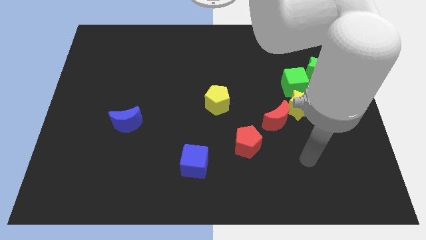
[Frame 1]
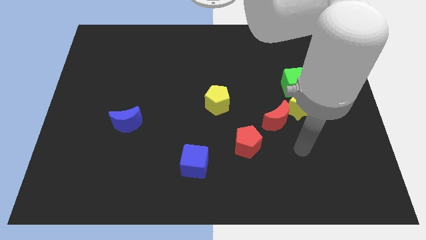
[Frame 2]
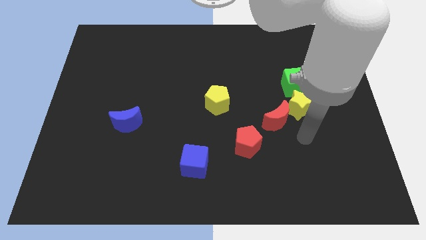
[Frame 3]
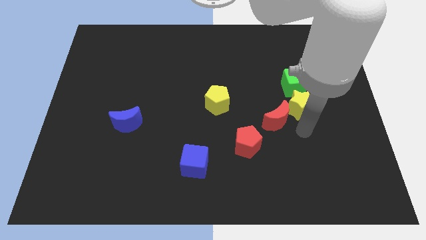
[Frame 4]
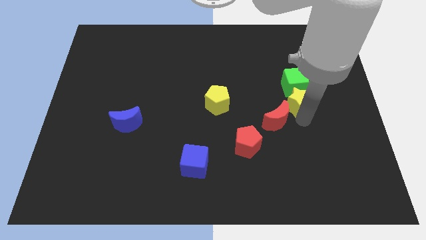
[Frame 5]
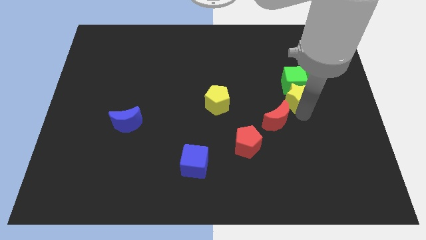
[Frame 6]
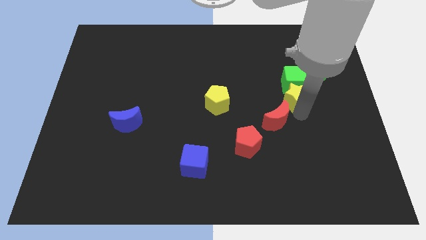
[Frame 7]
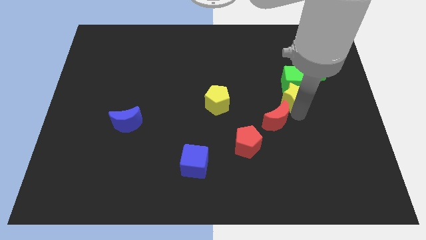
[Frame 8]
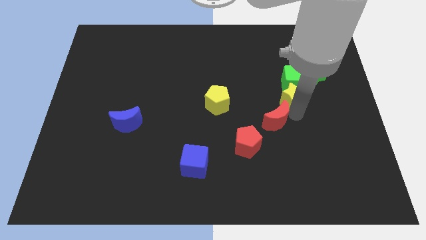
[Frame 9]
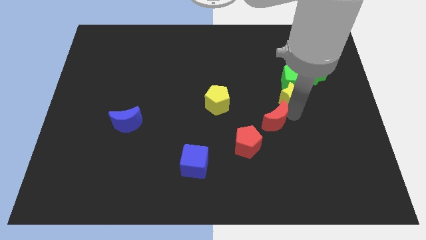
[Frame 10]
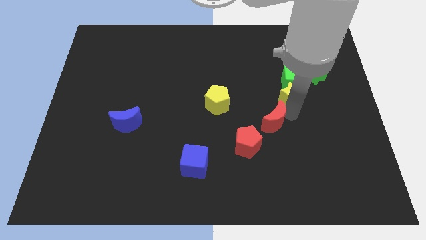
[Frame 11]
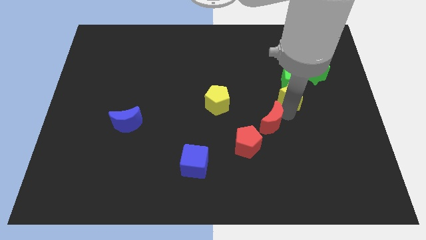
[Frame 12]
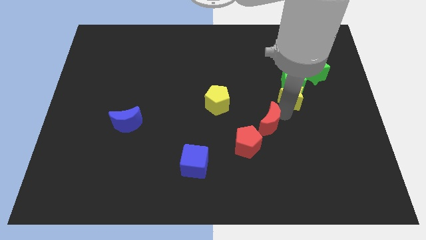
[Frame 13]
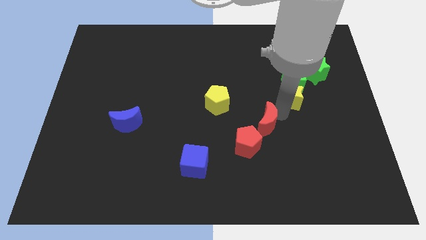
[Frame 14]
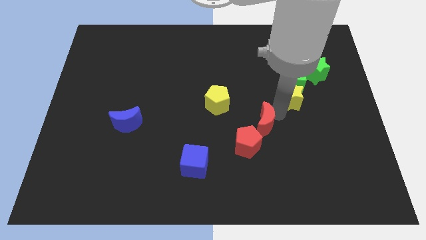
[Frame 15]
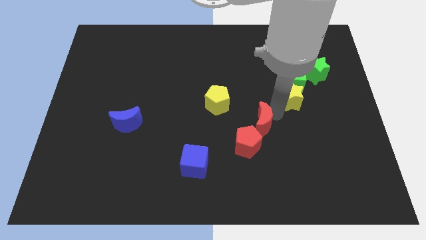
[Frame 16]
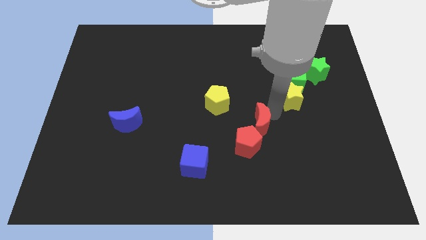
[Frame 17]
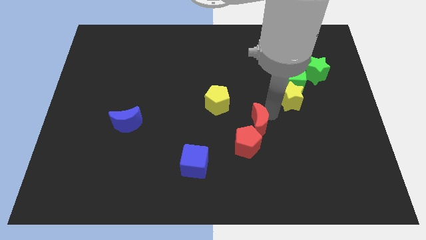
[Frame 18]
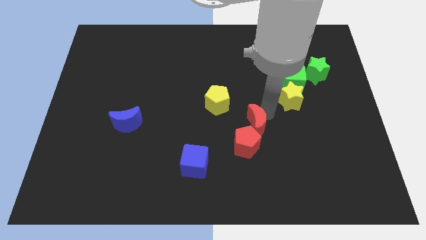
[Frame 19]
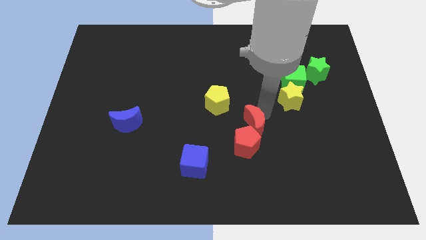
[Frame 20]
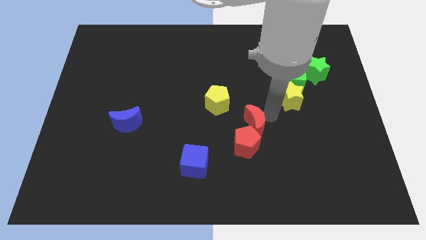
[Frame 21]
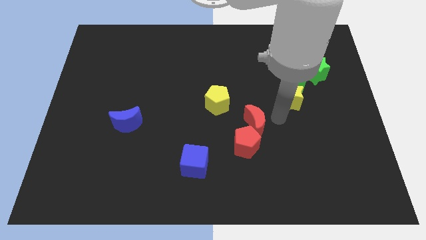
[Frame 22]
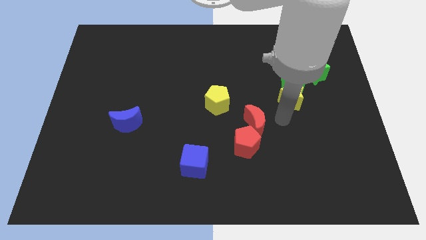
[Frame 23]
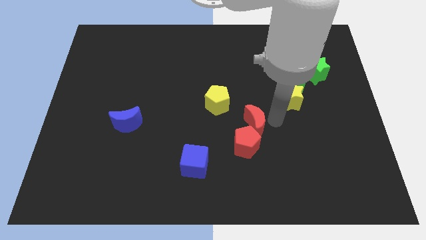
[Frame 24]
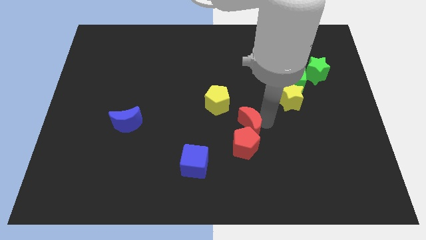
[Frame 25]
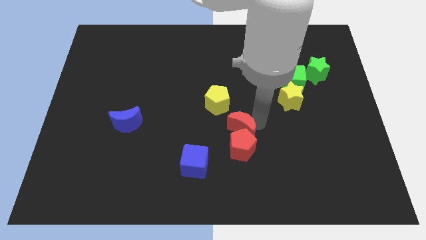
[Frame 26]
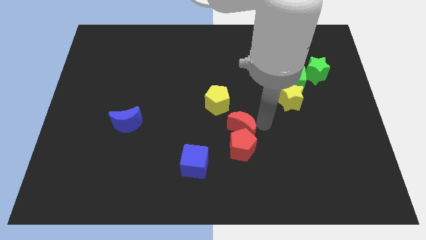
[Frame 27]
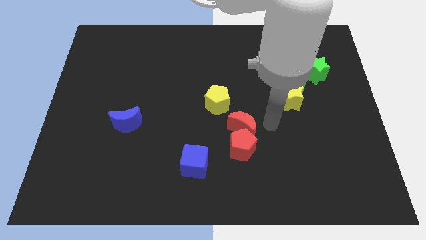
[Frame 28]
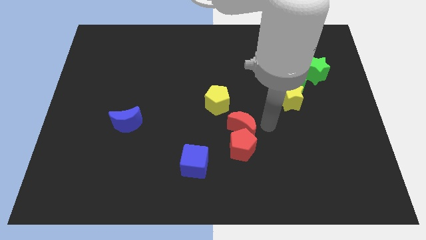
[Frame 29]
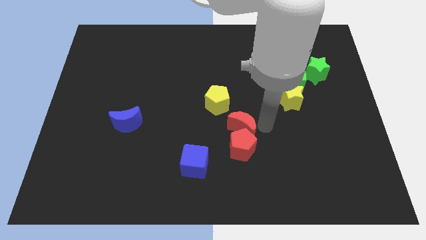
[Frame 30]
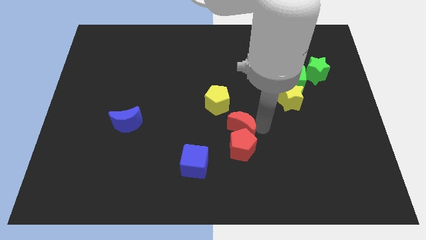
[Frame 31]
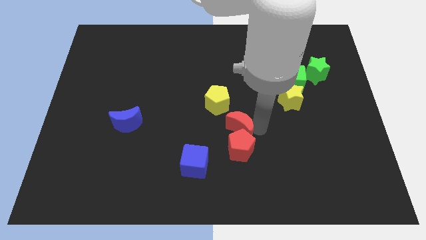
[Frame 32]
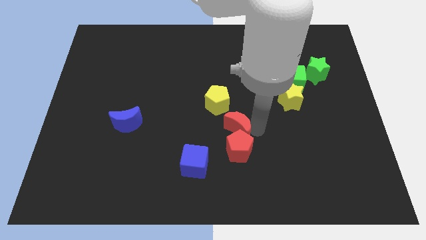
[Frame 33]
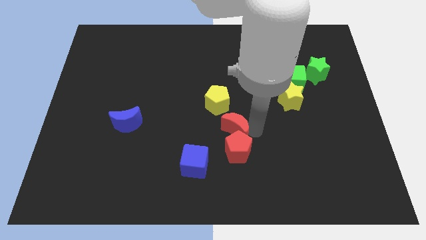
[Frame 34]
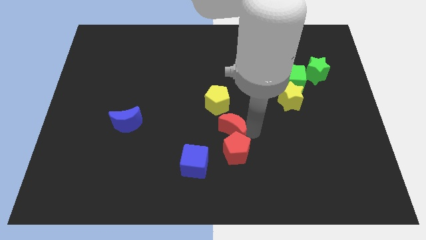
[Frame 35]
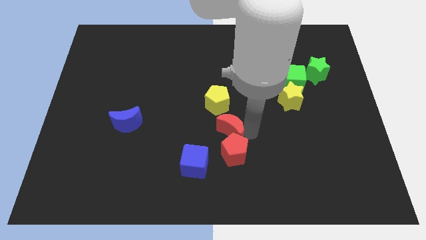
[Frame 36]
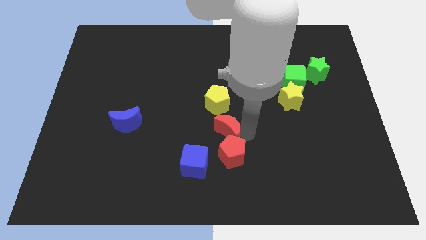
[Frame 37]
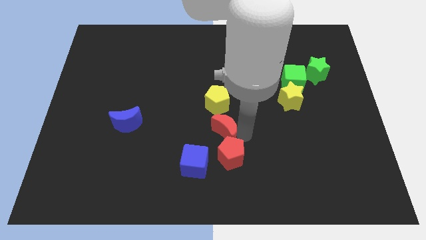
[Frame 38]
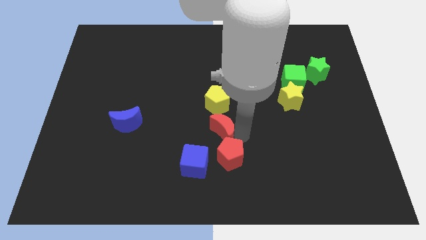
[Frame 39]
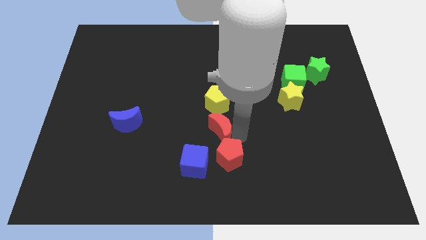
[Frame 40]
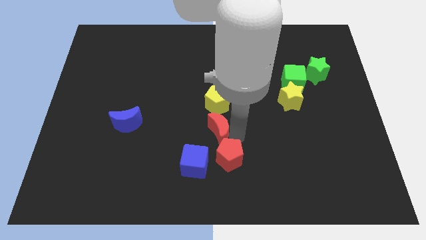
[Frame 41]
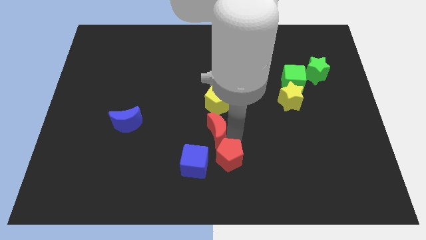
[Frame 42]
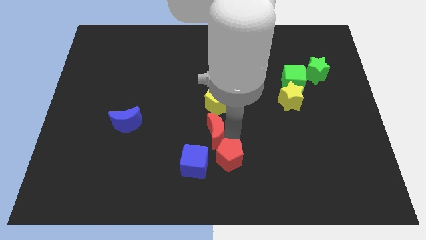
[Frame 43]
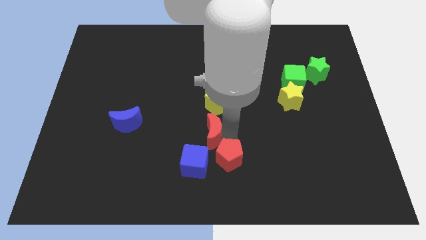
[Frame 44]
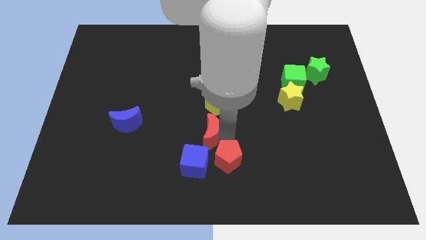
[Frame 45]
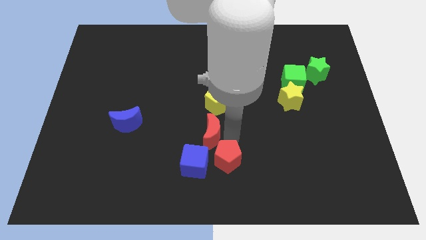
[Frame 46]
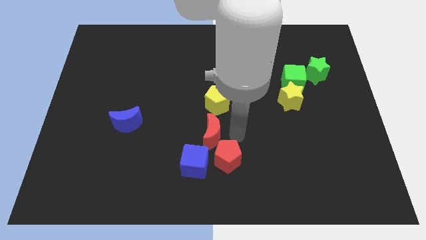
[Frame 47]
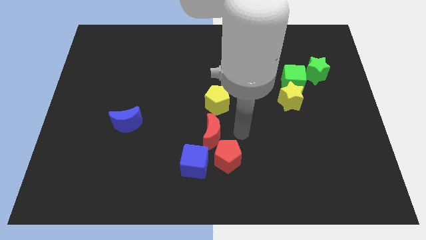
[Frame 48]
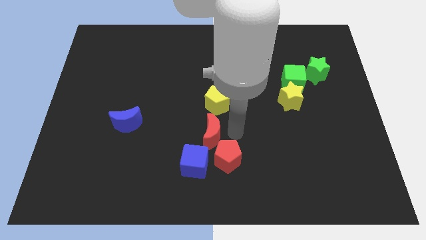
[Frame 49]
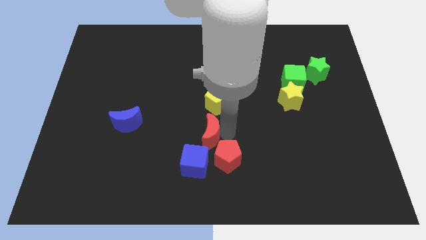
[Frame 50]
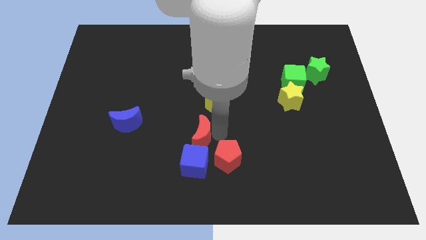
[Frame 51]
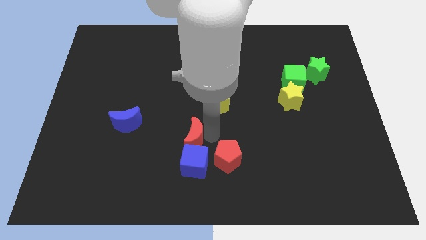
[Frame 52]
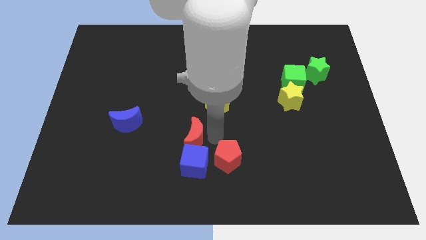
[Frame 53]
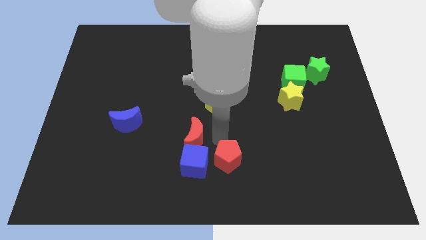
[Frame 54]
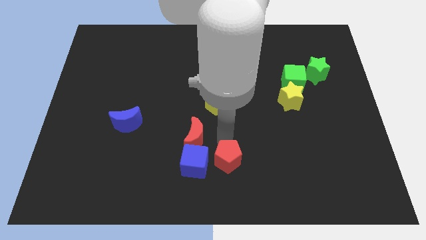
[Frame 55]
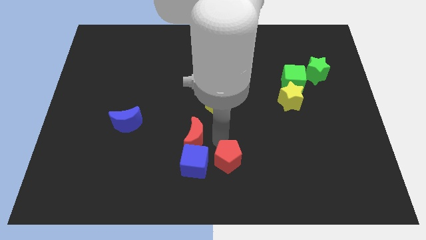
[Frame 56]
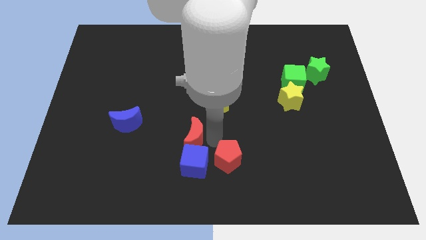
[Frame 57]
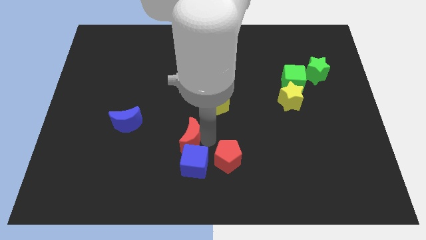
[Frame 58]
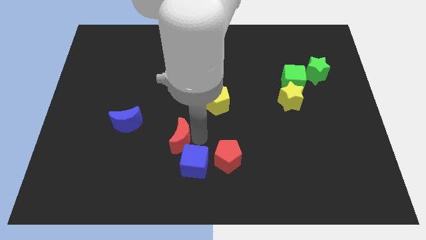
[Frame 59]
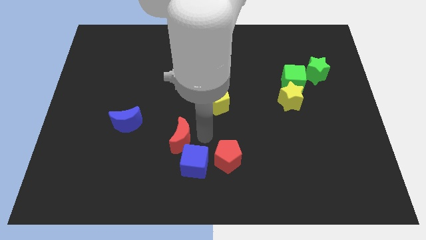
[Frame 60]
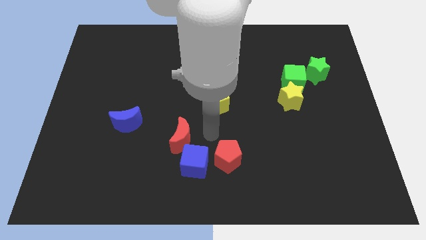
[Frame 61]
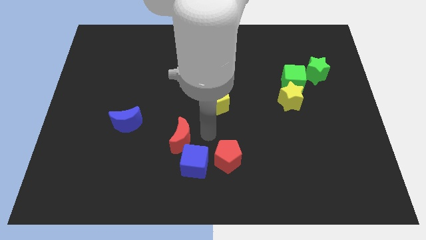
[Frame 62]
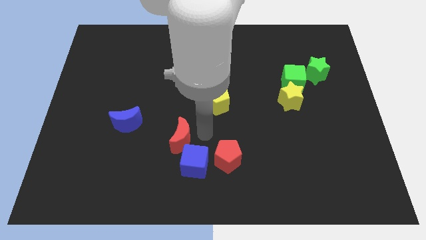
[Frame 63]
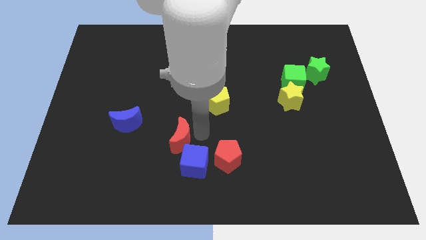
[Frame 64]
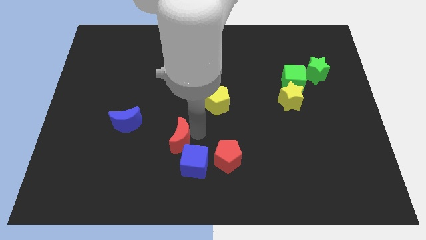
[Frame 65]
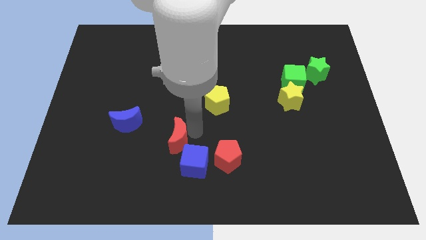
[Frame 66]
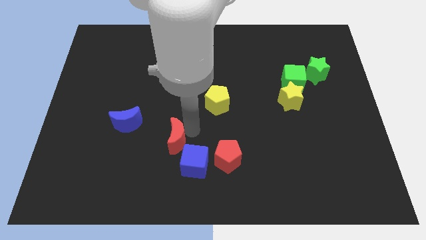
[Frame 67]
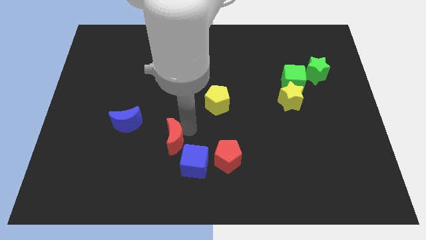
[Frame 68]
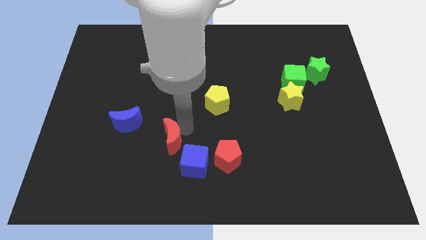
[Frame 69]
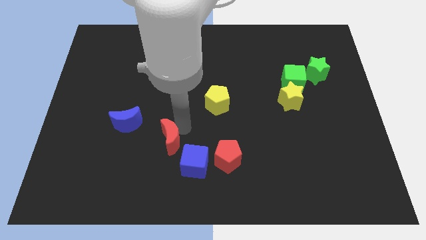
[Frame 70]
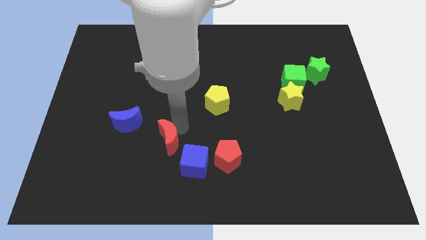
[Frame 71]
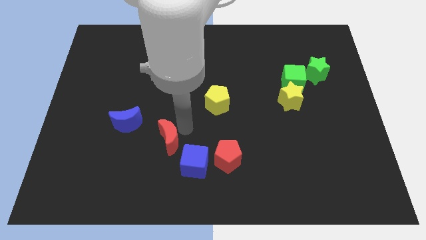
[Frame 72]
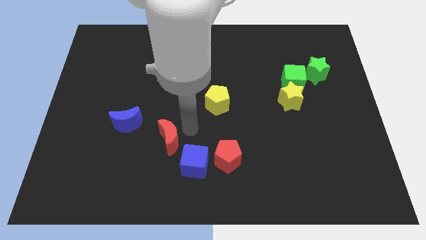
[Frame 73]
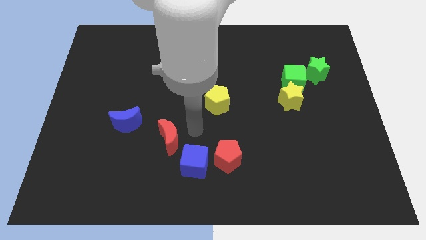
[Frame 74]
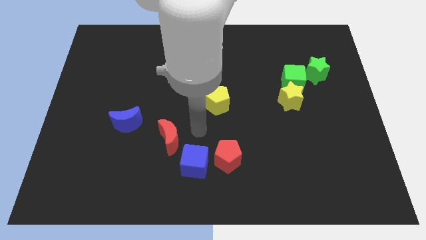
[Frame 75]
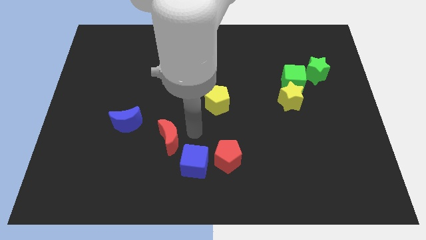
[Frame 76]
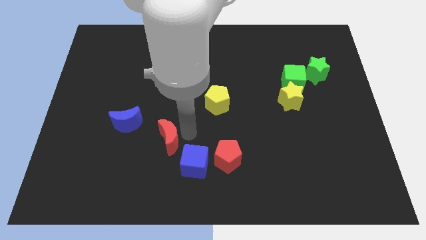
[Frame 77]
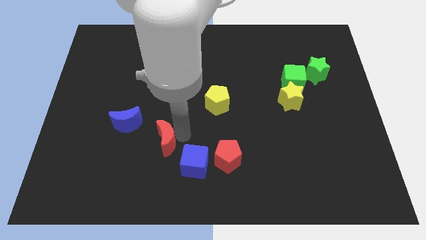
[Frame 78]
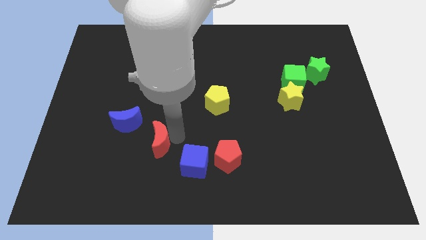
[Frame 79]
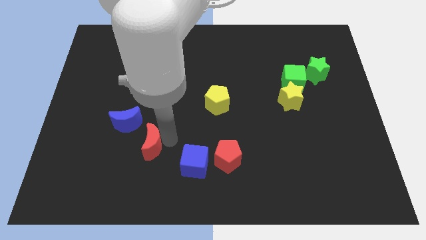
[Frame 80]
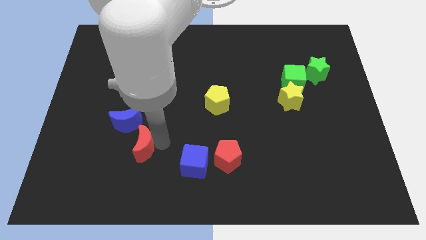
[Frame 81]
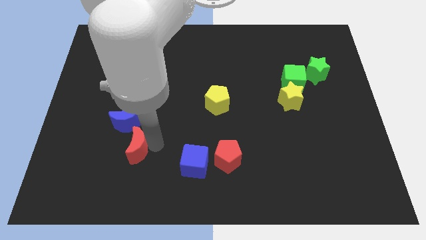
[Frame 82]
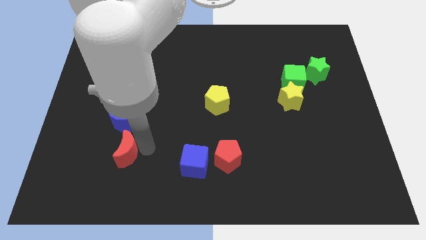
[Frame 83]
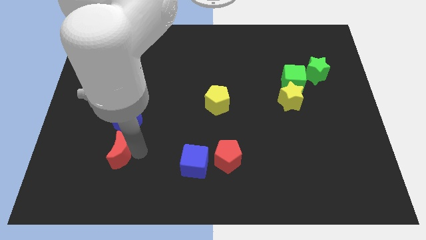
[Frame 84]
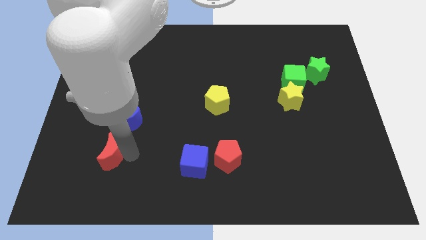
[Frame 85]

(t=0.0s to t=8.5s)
move the red moon diagonally down and to the left of the blue moon
